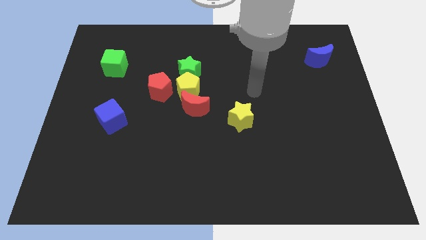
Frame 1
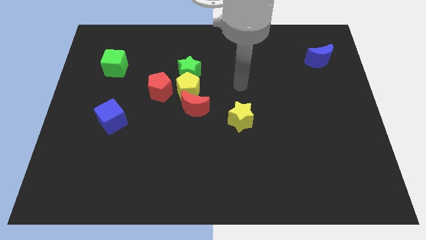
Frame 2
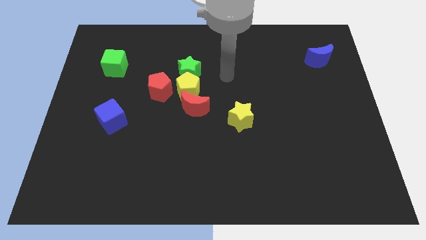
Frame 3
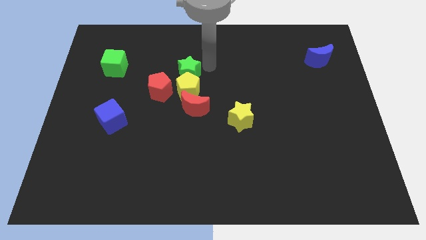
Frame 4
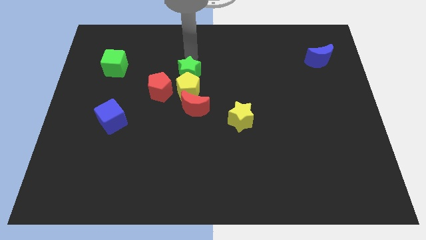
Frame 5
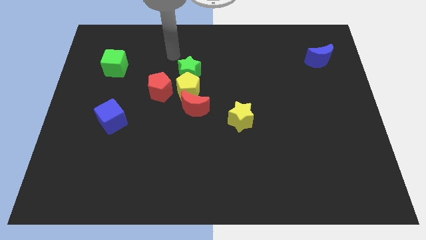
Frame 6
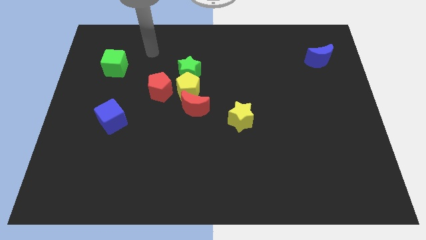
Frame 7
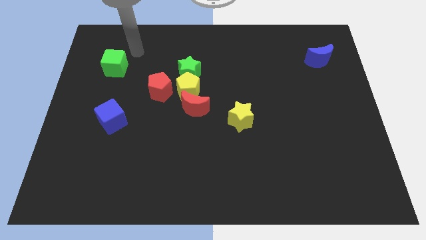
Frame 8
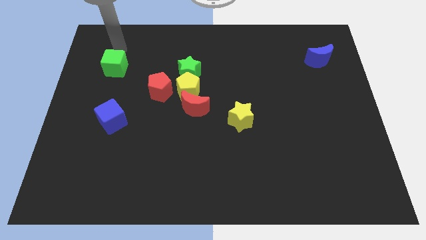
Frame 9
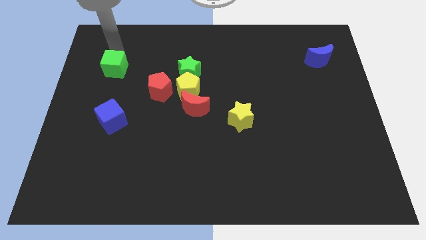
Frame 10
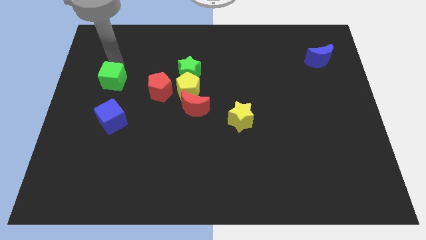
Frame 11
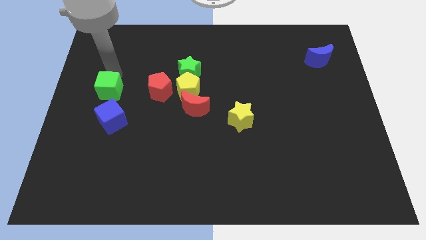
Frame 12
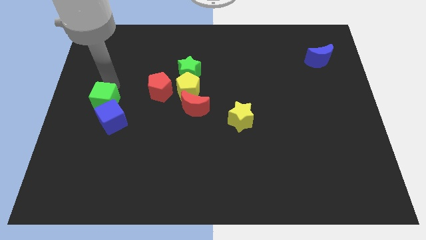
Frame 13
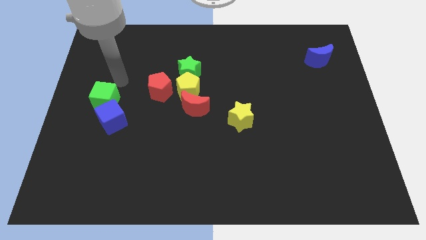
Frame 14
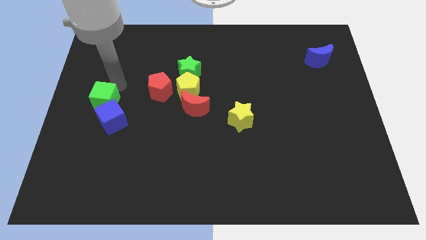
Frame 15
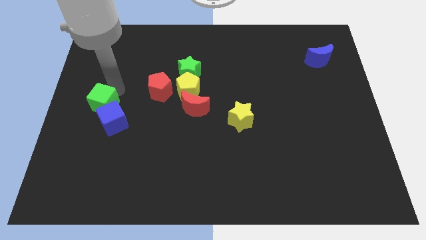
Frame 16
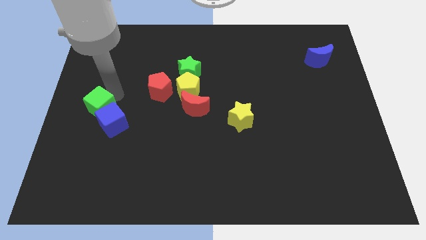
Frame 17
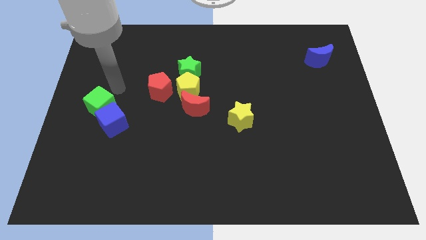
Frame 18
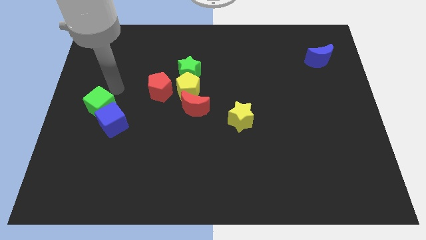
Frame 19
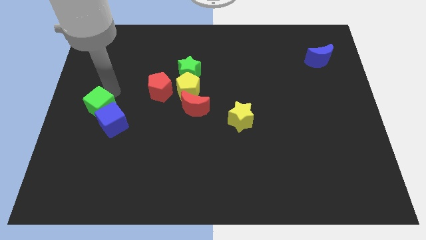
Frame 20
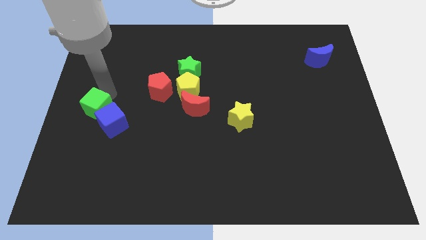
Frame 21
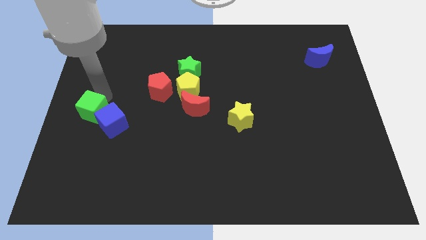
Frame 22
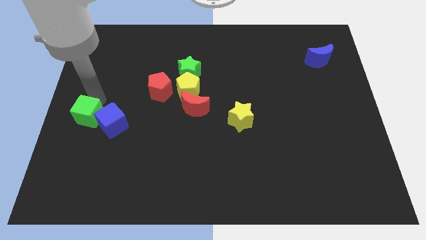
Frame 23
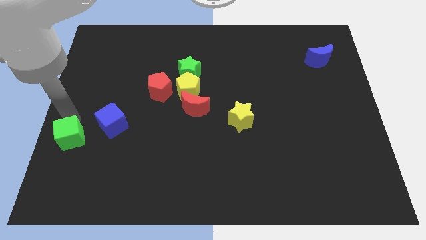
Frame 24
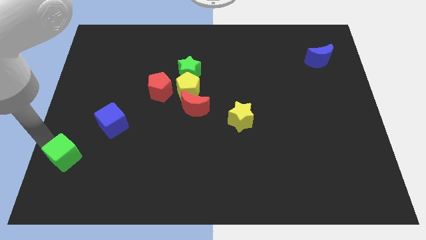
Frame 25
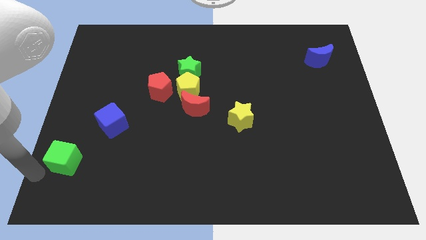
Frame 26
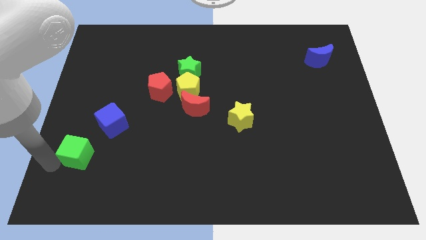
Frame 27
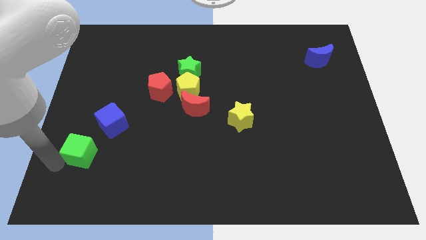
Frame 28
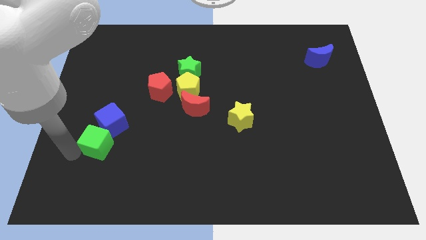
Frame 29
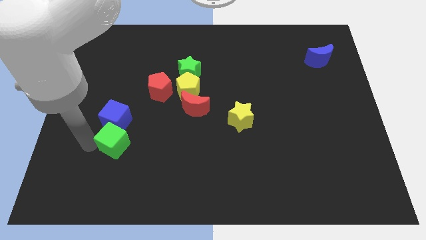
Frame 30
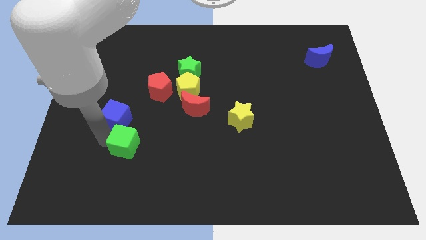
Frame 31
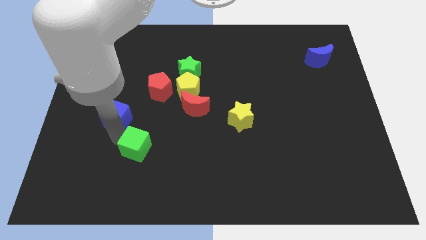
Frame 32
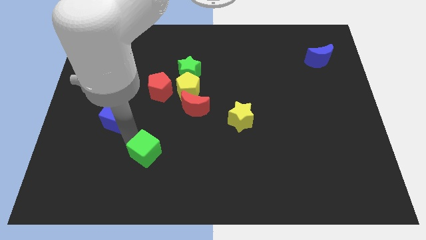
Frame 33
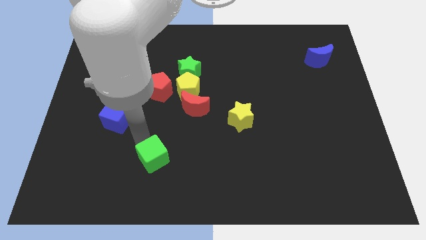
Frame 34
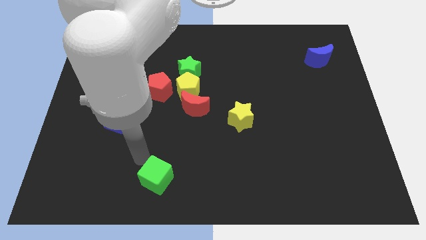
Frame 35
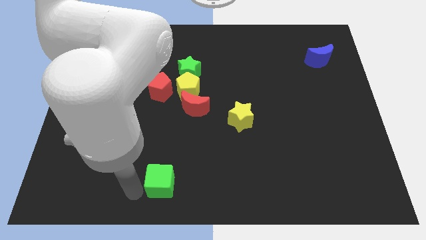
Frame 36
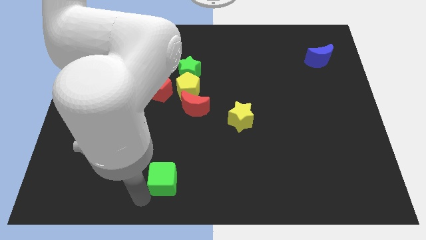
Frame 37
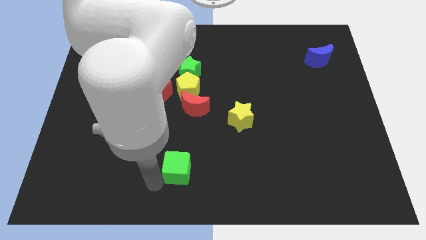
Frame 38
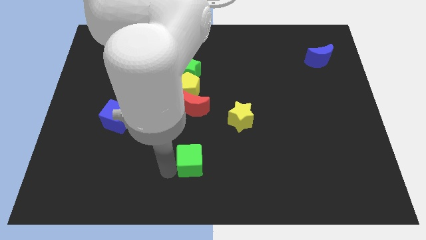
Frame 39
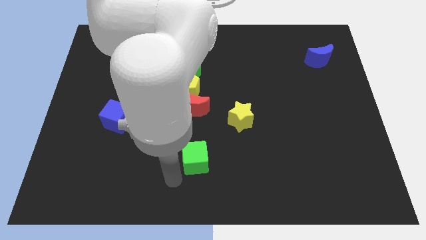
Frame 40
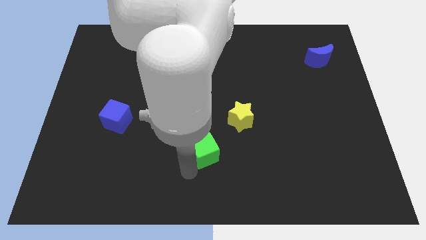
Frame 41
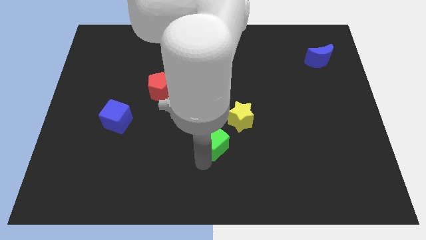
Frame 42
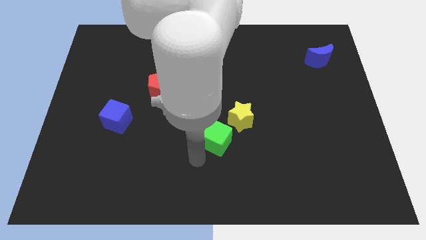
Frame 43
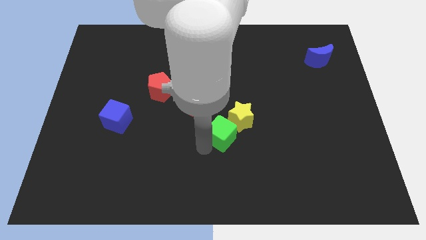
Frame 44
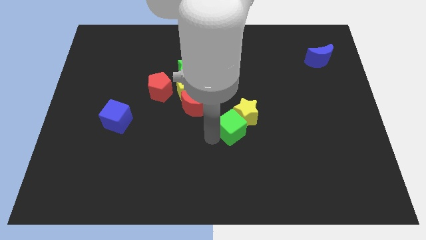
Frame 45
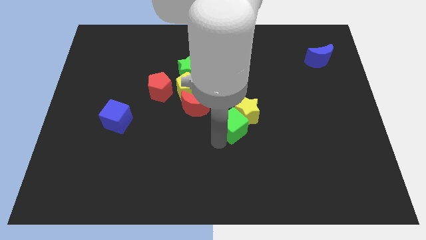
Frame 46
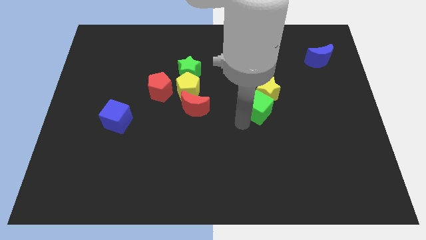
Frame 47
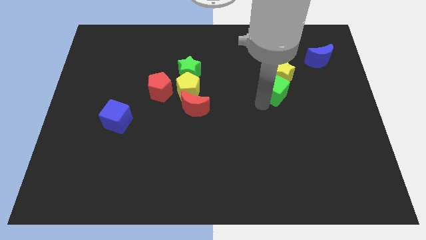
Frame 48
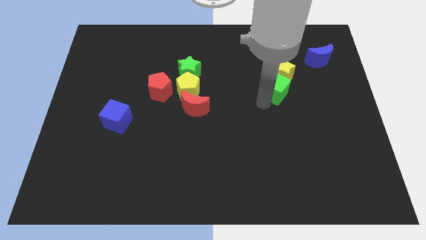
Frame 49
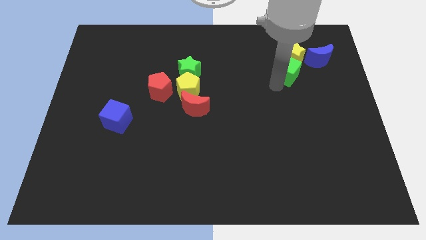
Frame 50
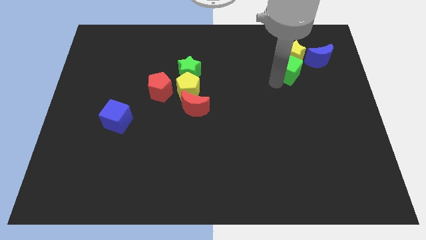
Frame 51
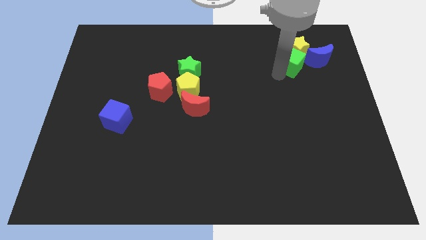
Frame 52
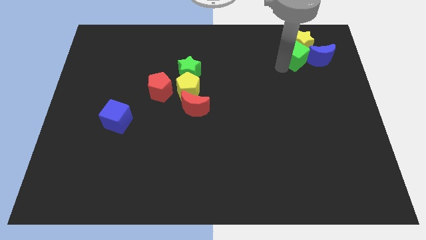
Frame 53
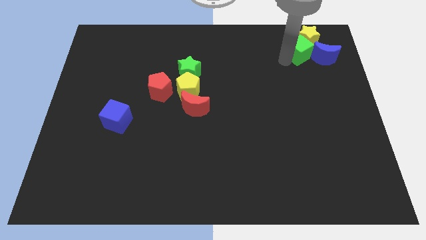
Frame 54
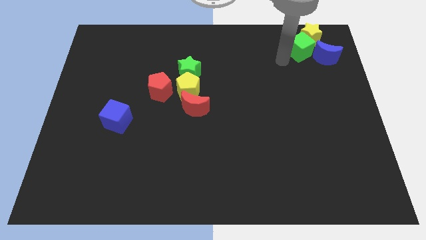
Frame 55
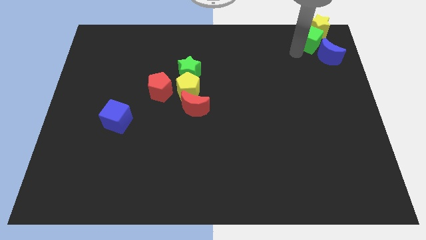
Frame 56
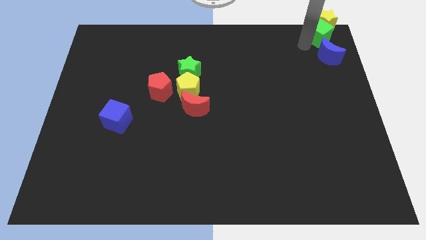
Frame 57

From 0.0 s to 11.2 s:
put the green cube to the top right corner

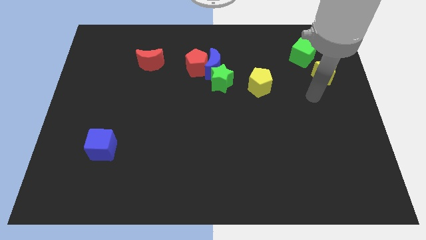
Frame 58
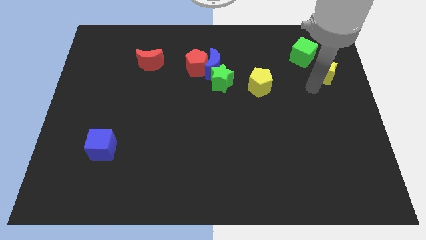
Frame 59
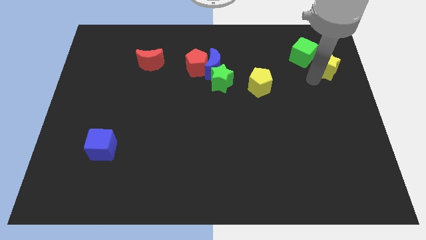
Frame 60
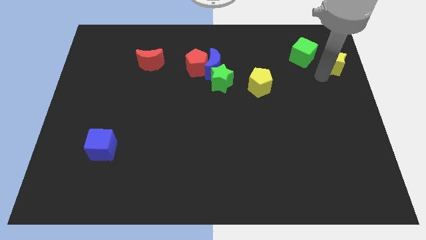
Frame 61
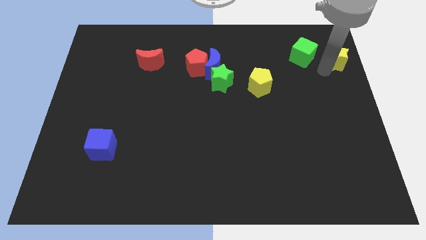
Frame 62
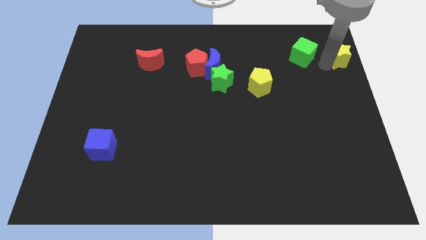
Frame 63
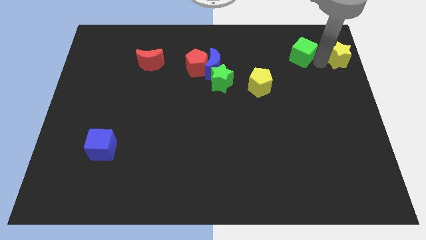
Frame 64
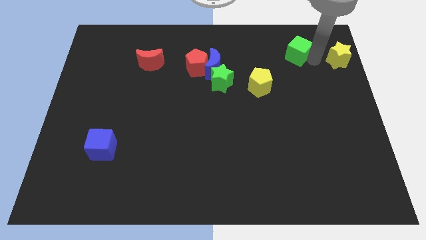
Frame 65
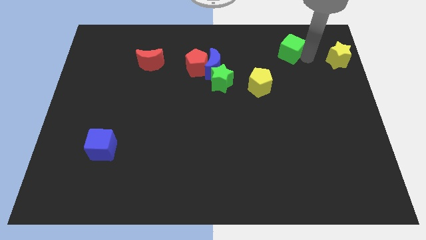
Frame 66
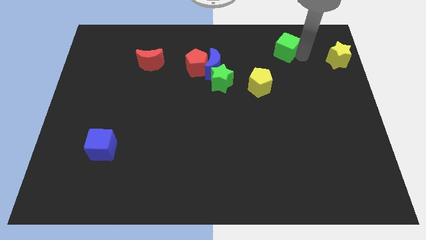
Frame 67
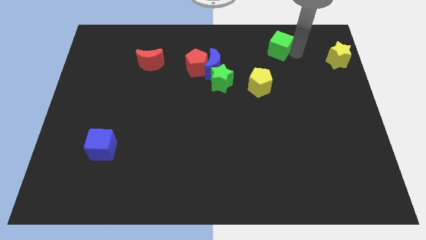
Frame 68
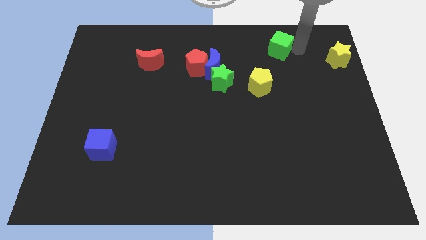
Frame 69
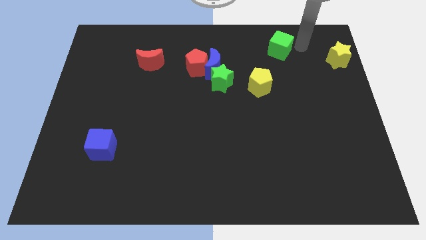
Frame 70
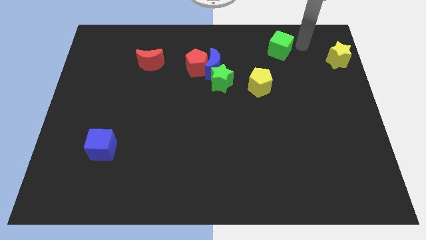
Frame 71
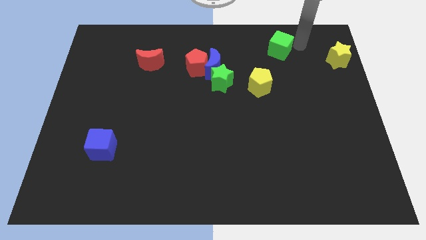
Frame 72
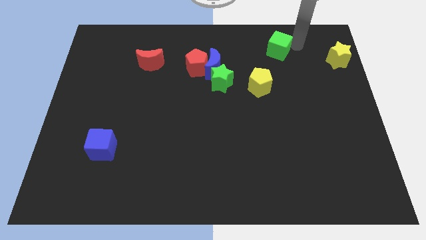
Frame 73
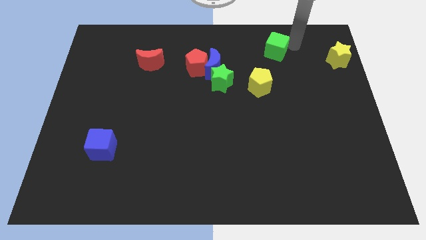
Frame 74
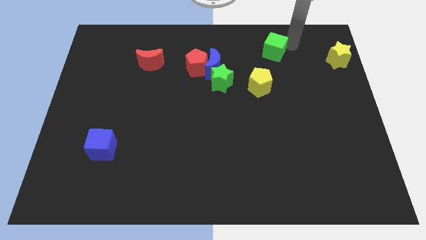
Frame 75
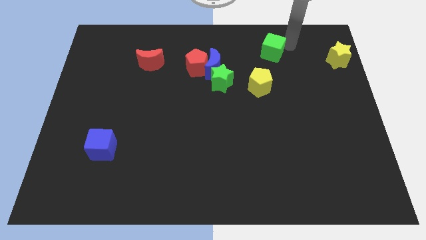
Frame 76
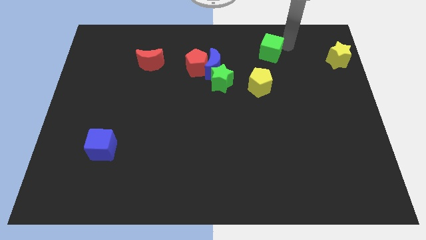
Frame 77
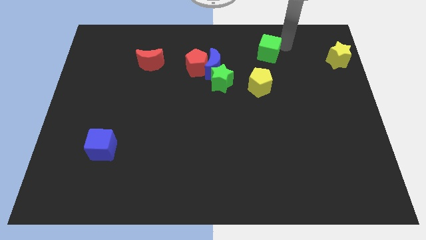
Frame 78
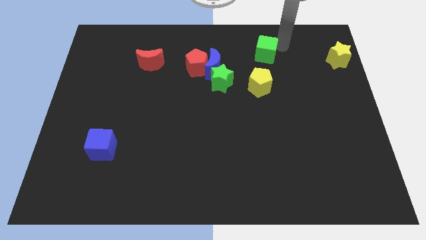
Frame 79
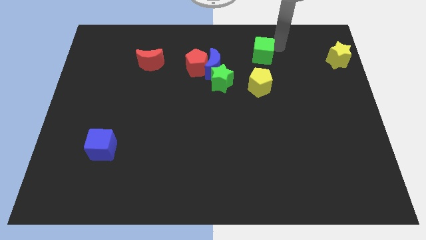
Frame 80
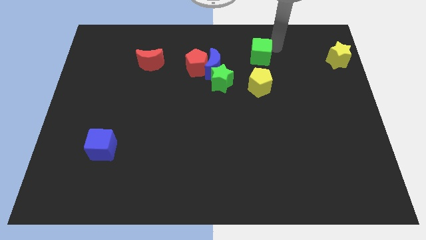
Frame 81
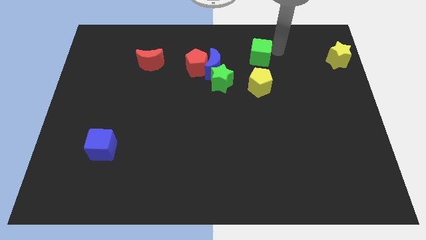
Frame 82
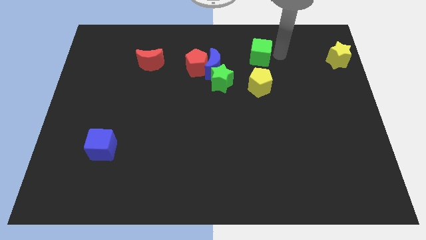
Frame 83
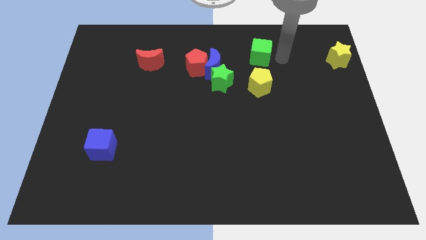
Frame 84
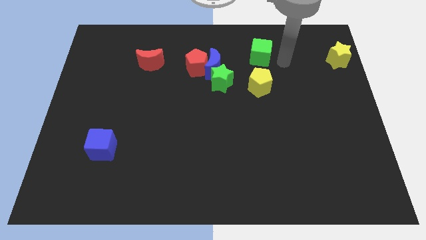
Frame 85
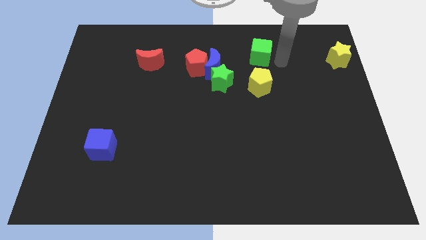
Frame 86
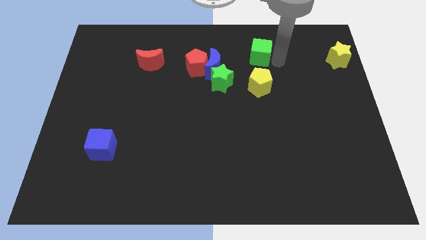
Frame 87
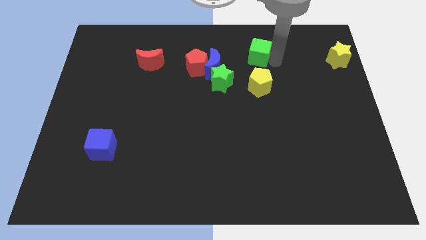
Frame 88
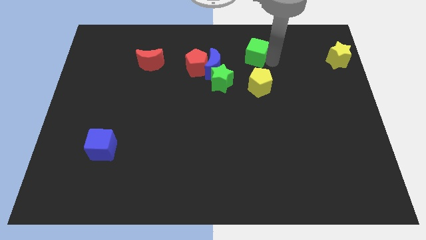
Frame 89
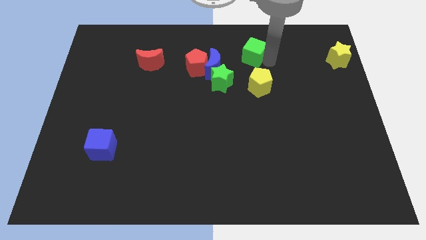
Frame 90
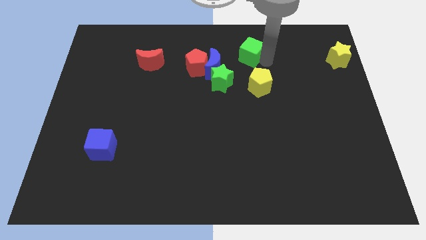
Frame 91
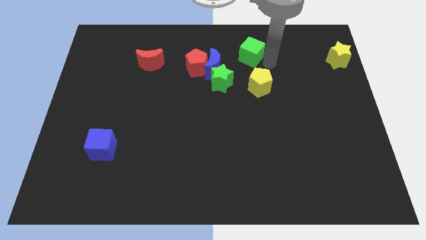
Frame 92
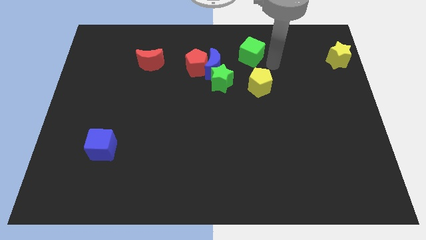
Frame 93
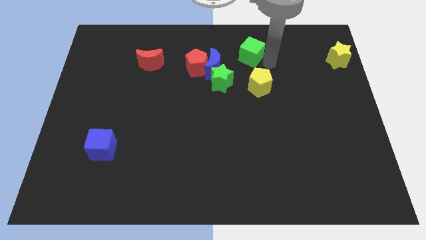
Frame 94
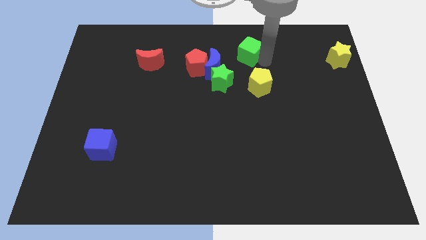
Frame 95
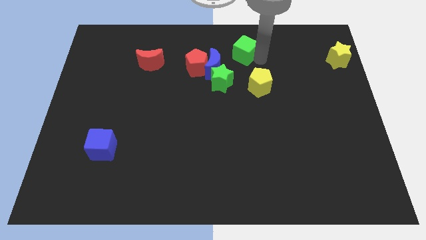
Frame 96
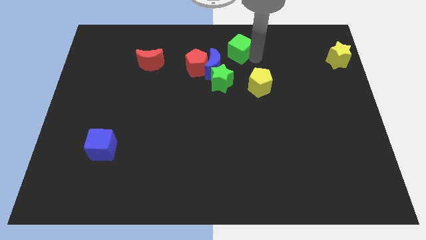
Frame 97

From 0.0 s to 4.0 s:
move the green cube to the top side
